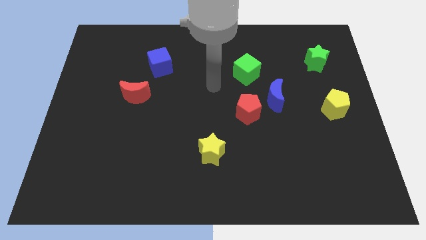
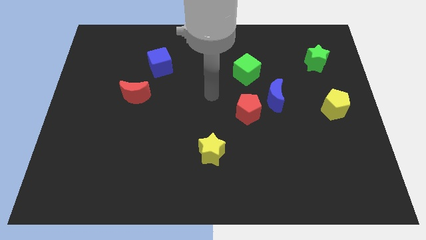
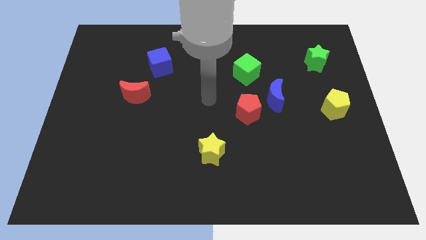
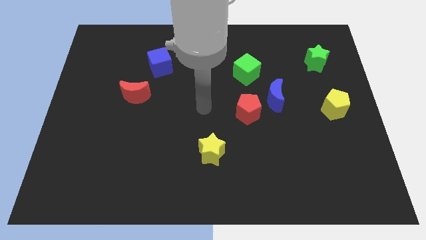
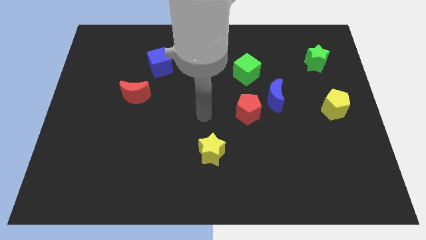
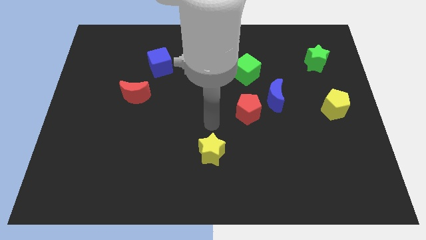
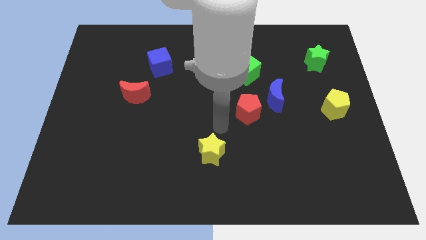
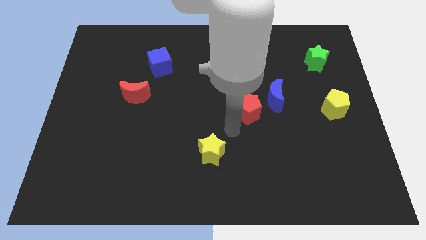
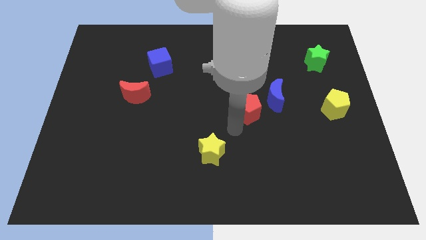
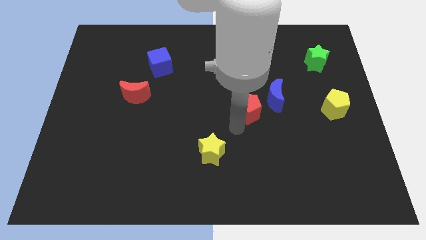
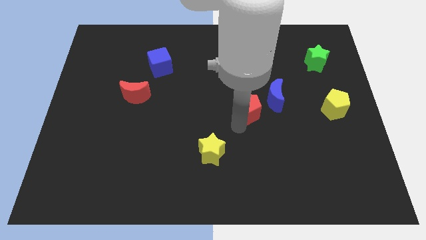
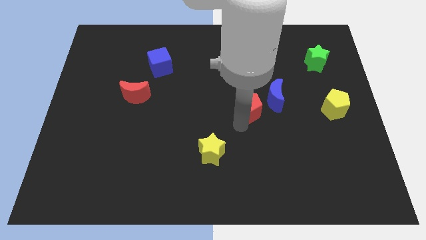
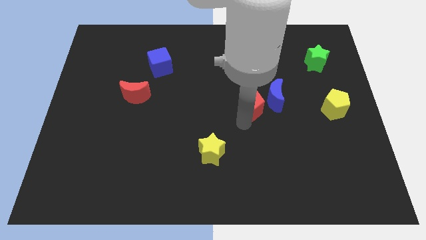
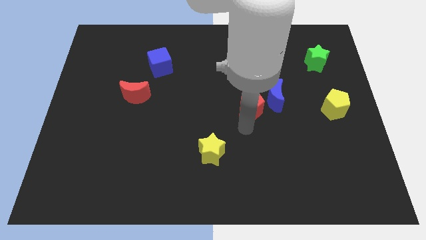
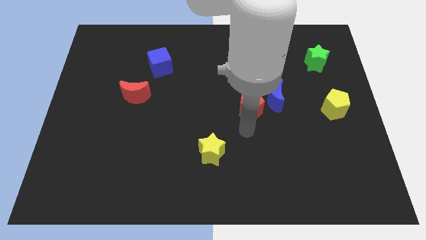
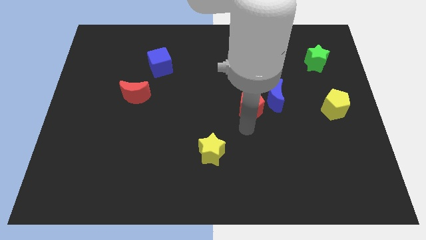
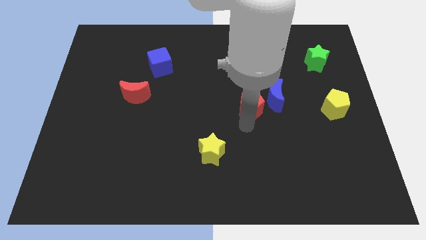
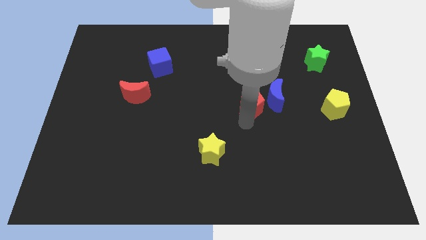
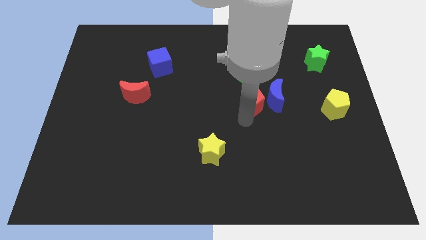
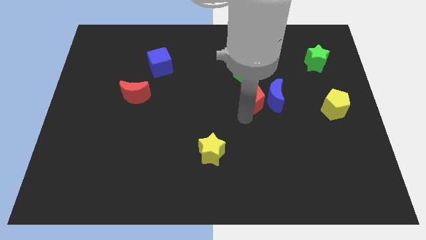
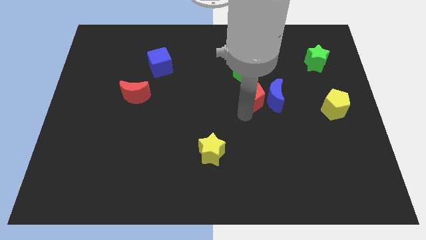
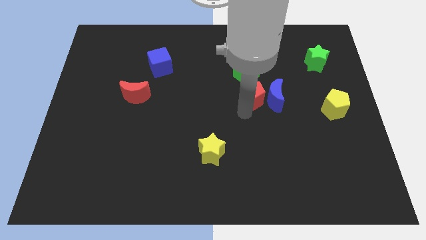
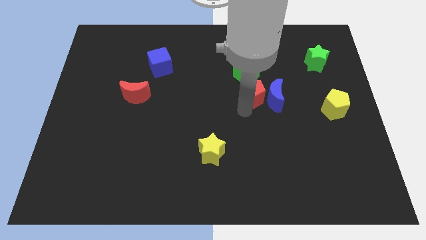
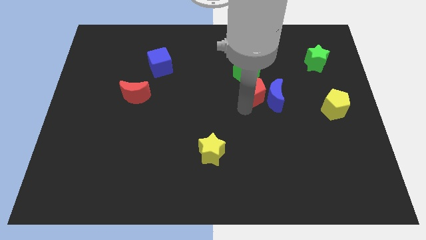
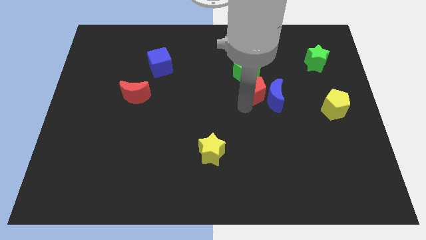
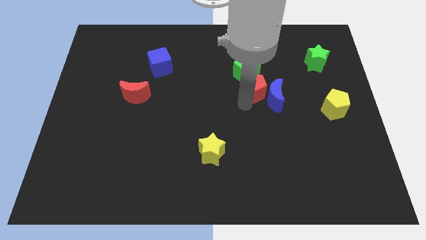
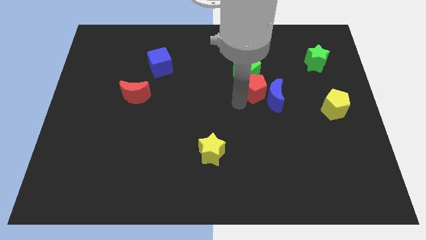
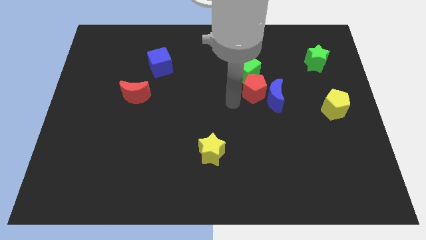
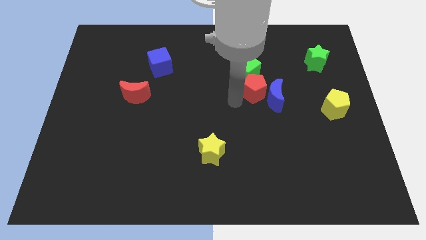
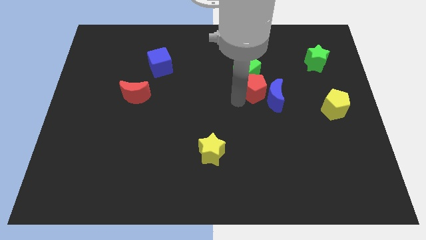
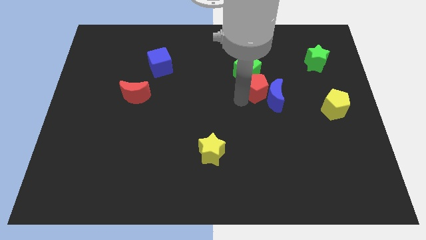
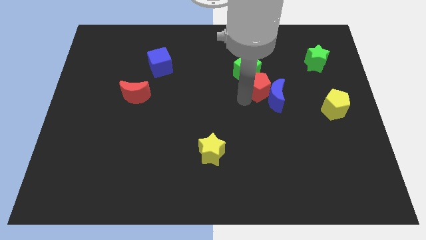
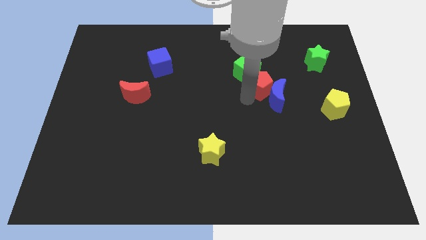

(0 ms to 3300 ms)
push the red pentagon a little up and to the right

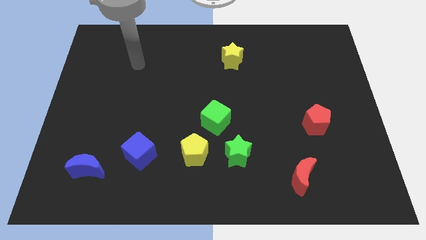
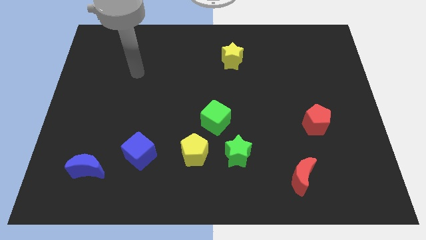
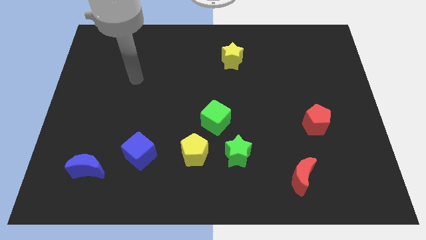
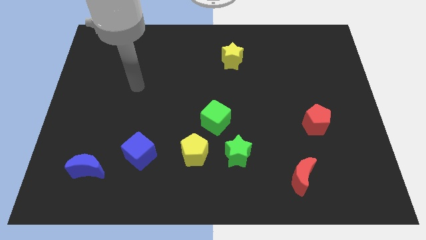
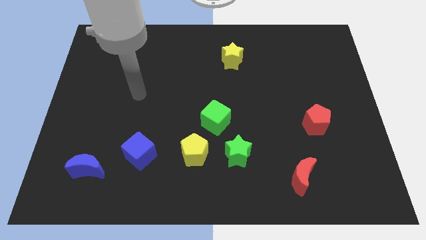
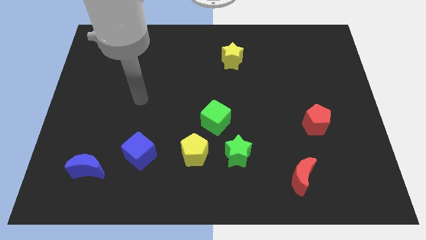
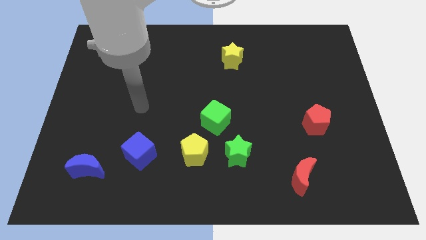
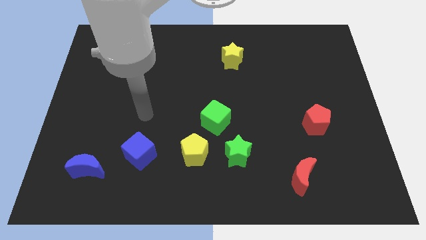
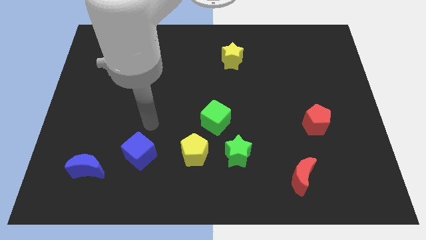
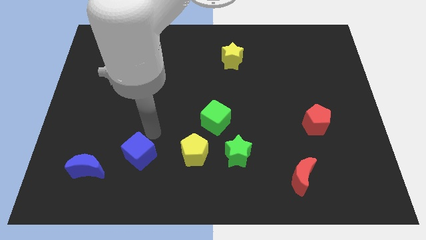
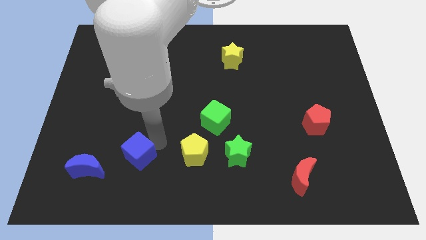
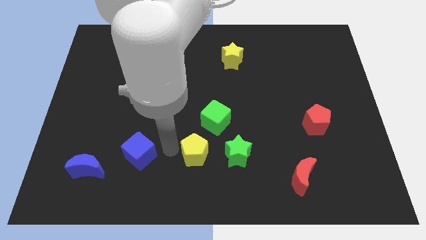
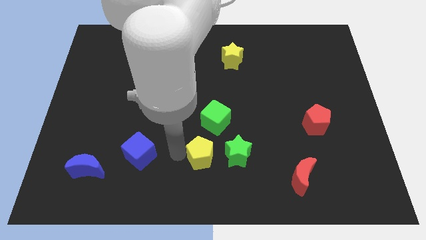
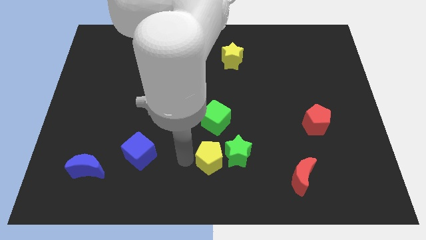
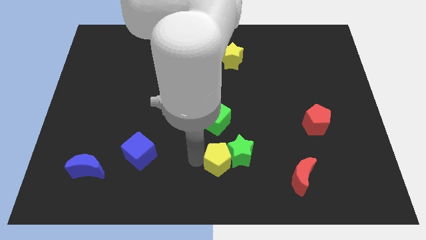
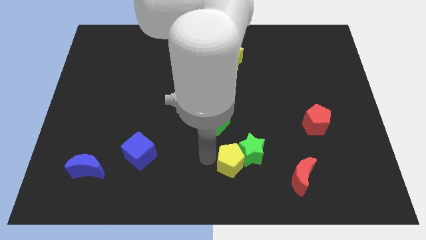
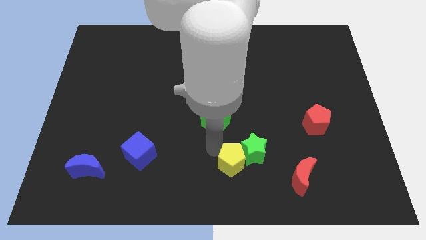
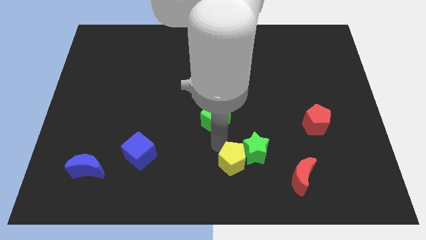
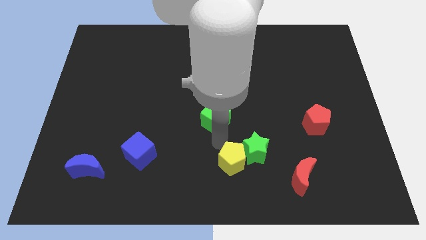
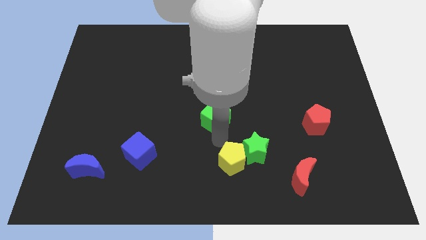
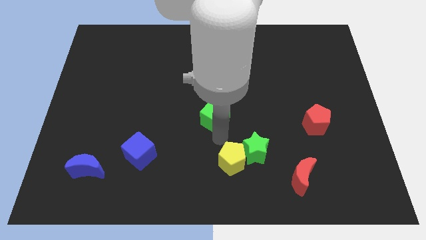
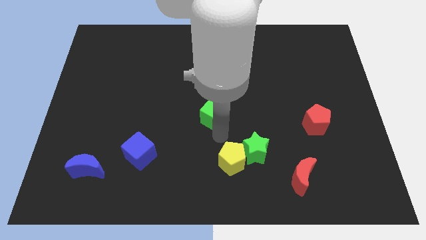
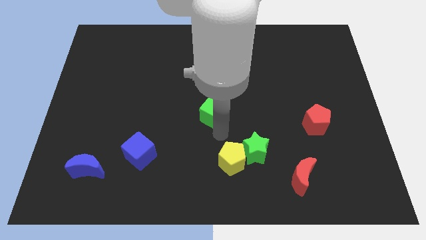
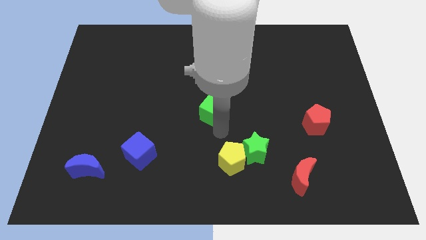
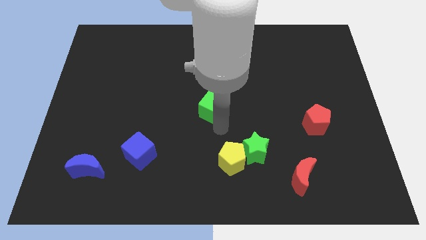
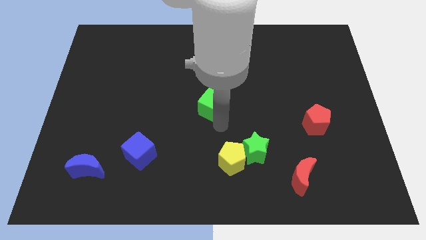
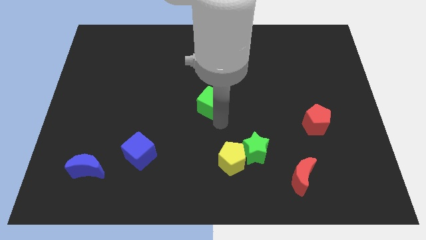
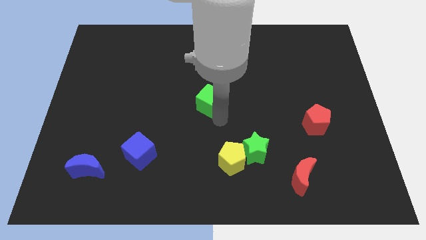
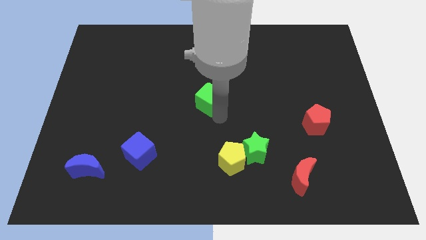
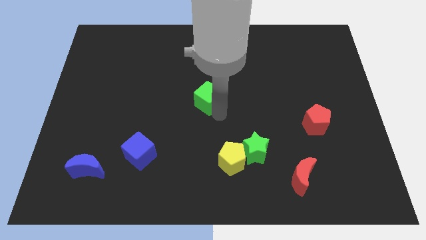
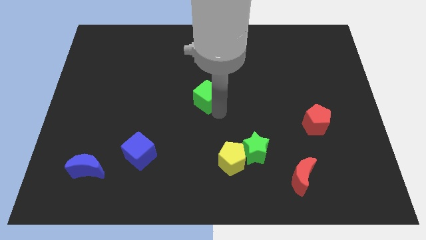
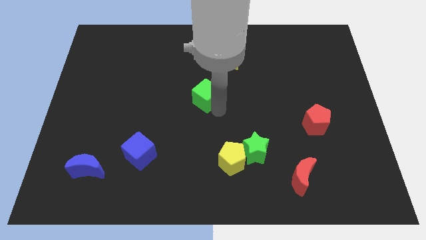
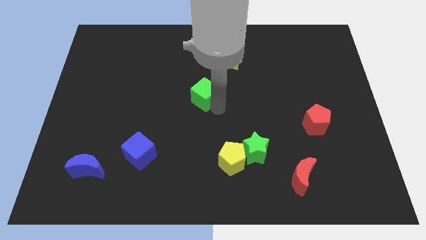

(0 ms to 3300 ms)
move the green cube up somewhat

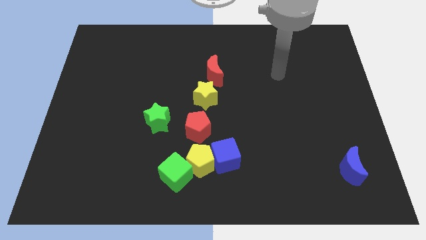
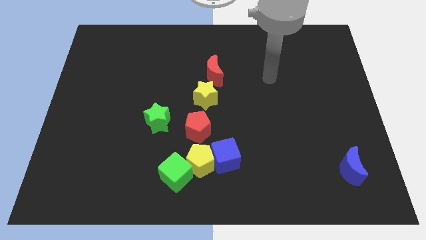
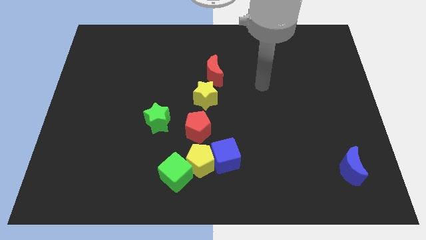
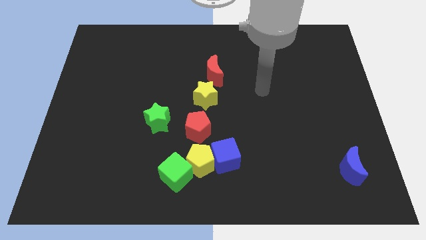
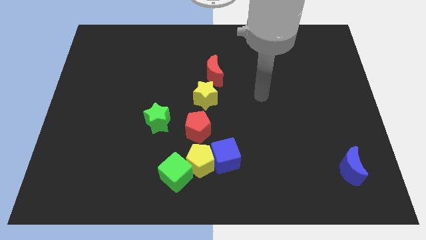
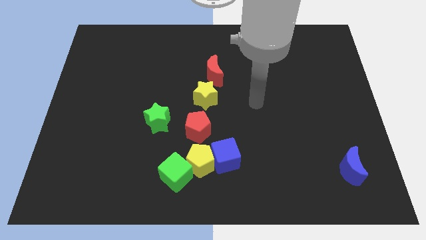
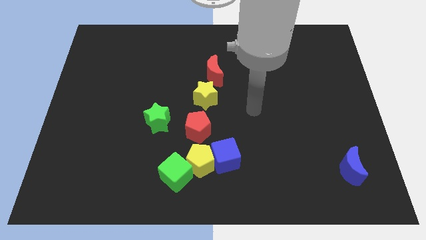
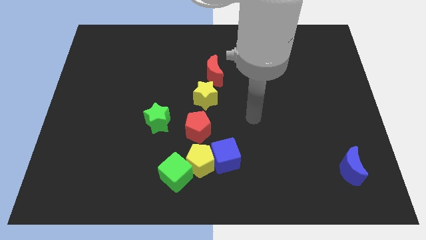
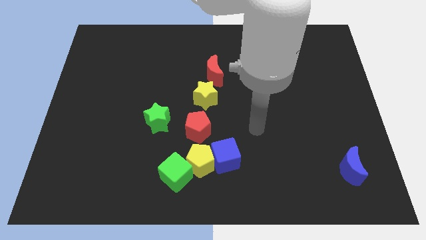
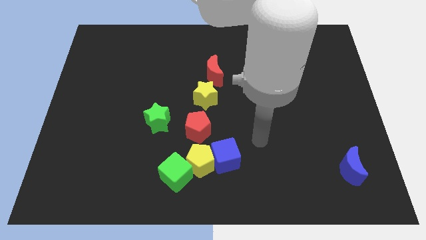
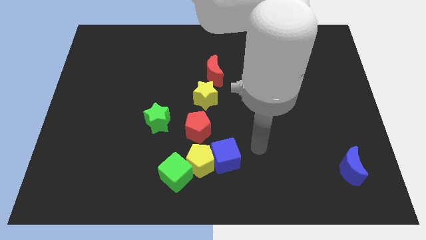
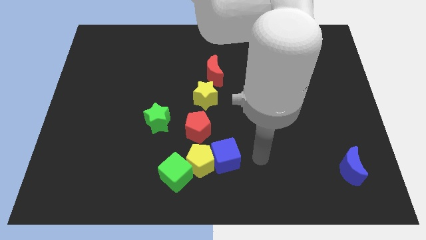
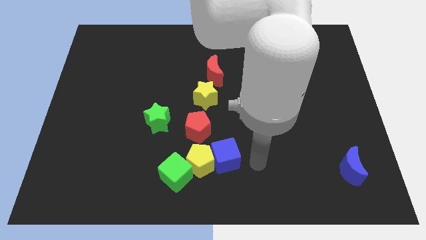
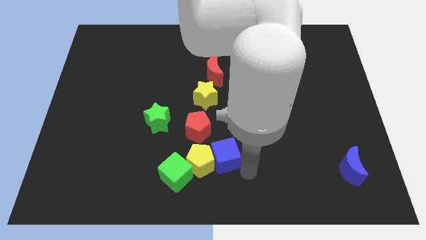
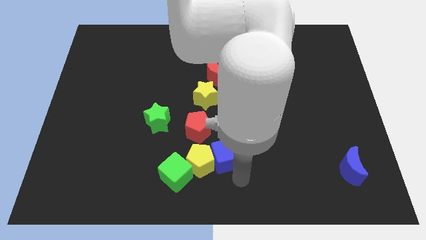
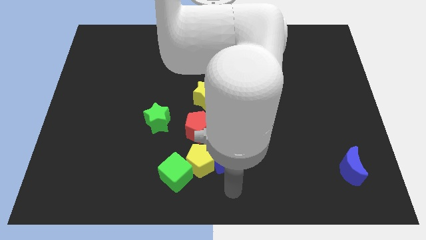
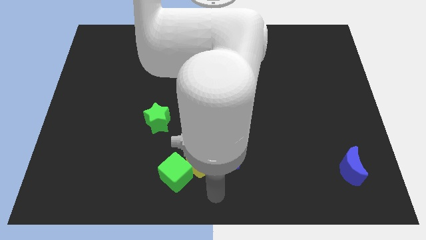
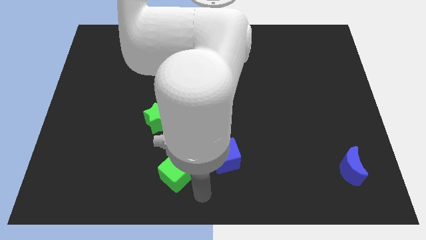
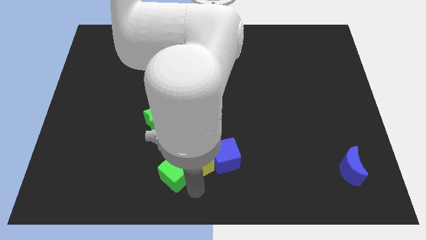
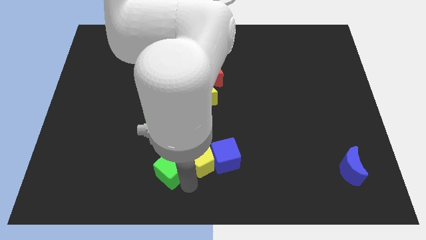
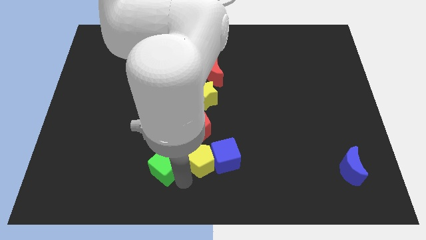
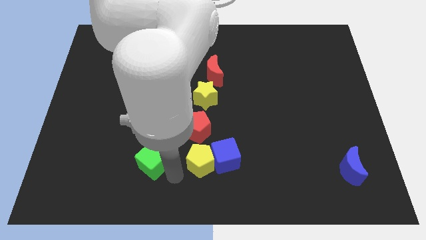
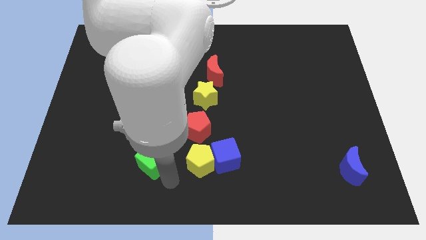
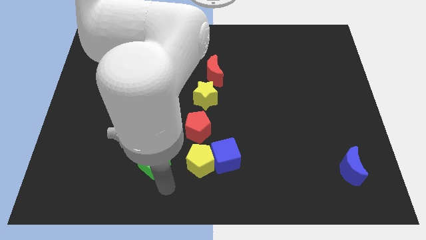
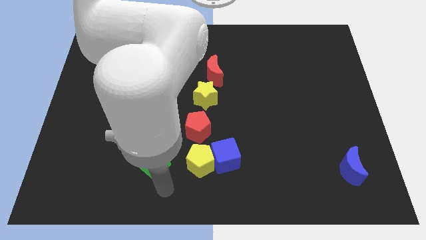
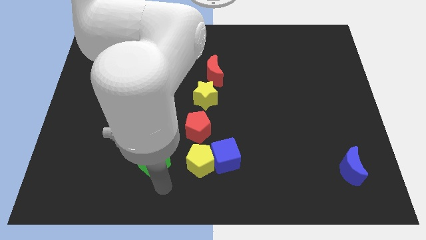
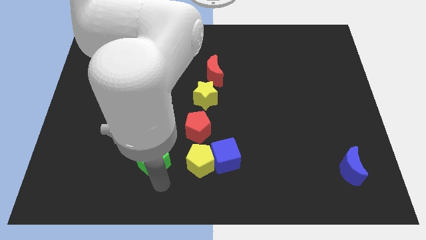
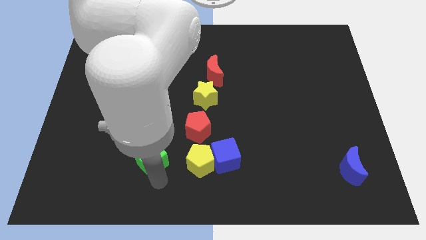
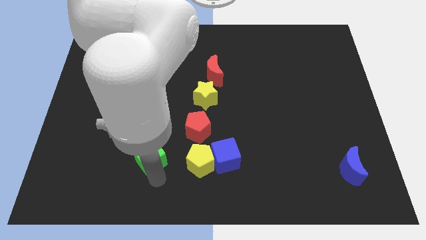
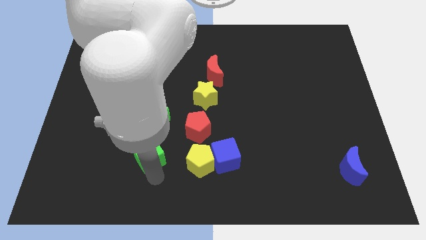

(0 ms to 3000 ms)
push the green cube a bit diagonally up and to the left
